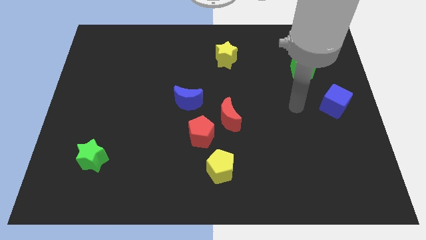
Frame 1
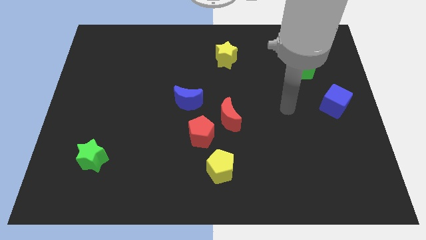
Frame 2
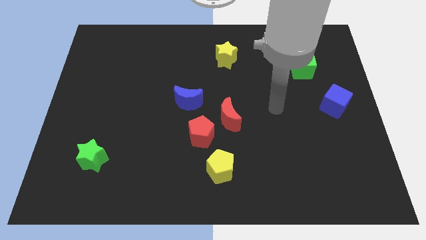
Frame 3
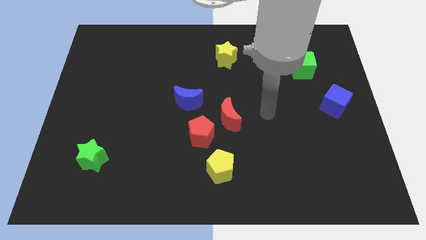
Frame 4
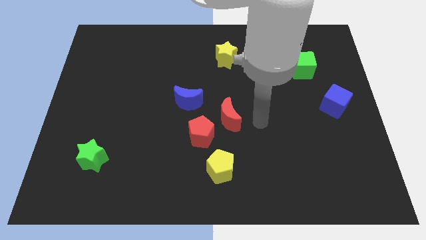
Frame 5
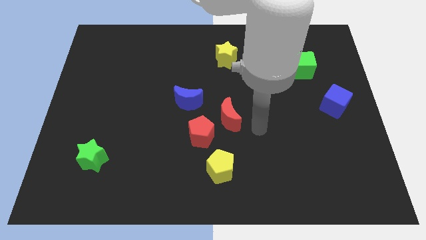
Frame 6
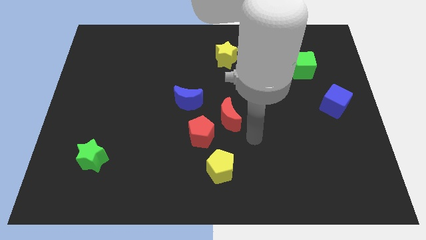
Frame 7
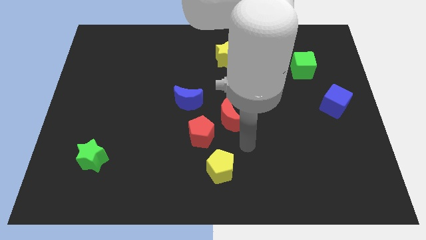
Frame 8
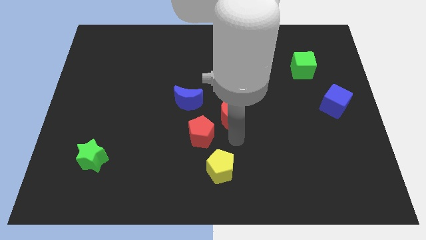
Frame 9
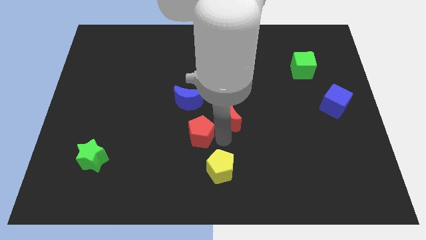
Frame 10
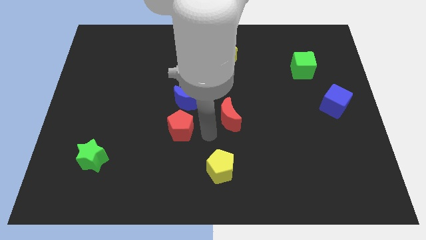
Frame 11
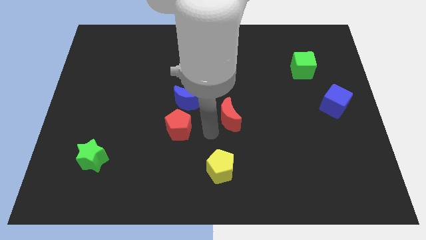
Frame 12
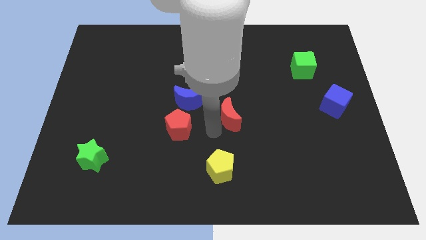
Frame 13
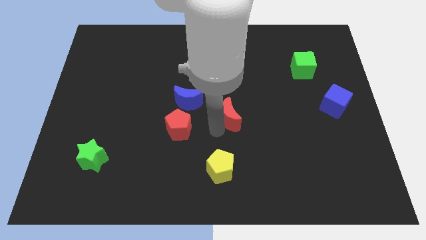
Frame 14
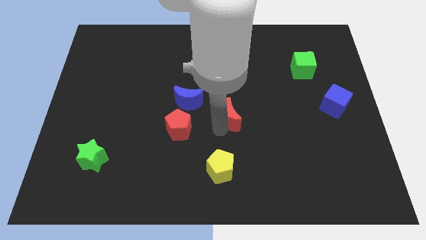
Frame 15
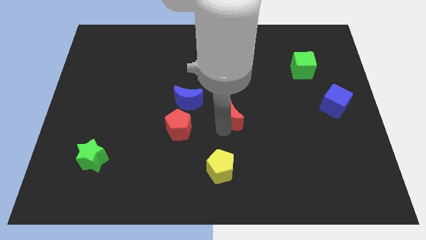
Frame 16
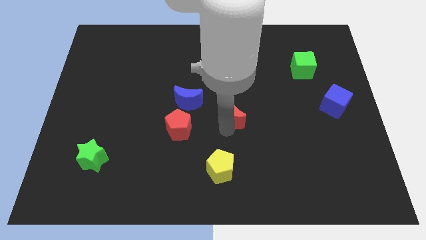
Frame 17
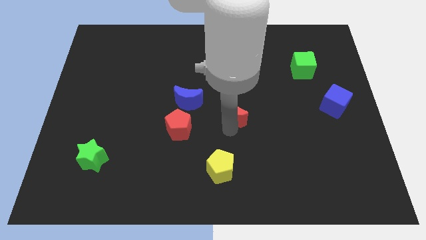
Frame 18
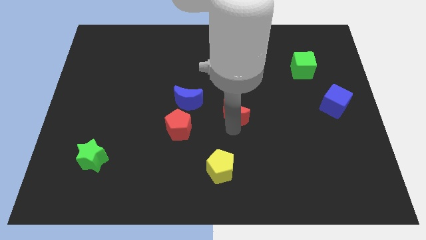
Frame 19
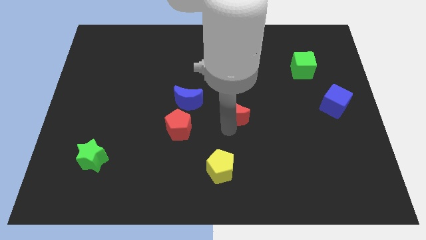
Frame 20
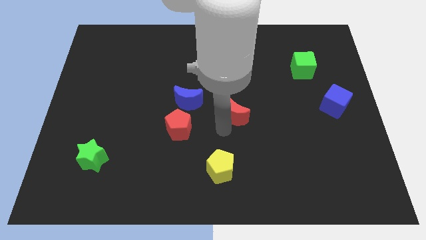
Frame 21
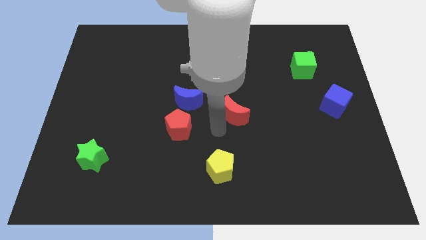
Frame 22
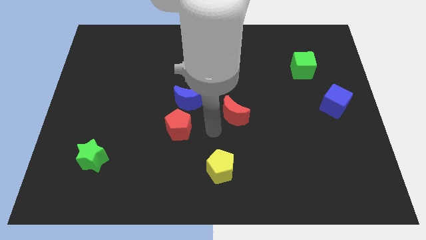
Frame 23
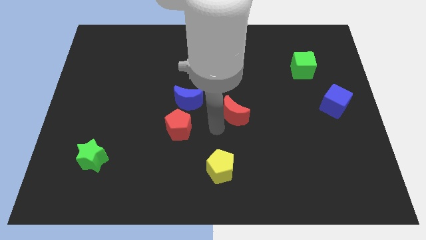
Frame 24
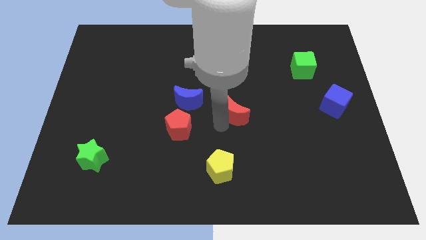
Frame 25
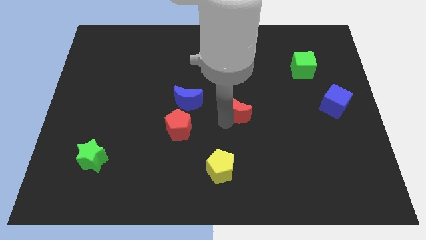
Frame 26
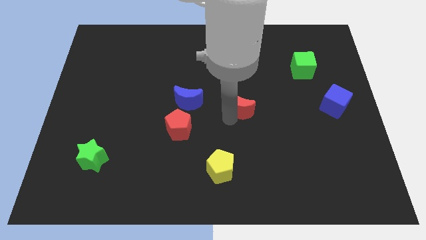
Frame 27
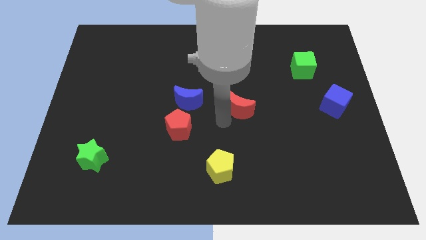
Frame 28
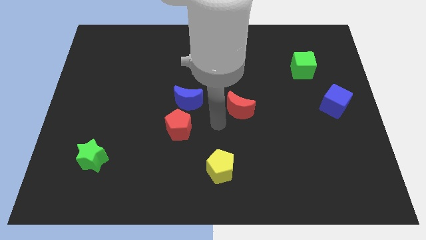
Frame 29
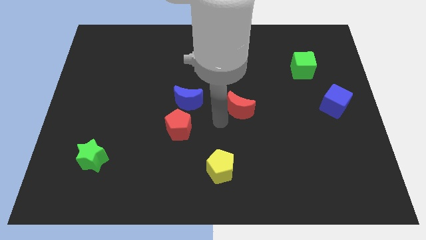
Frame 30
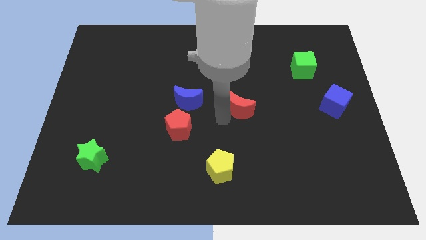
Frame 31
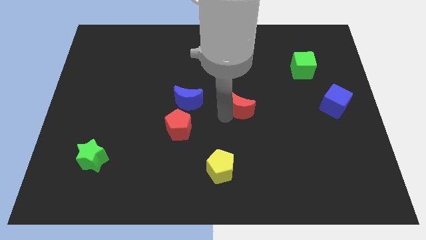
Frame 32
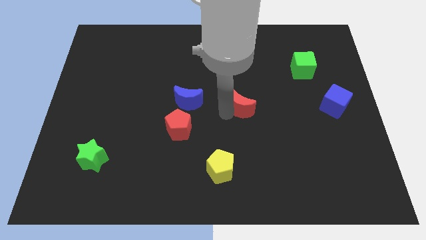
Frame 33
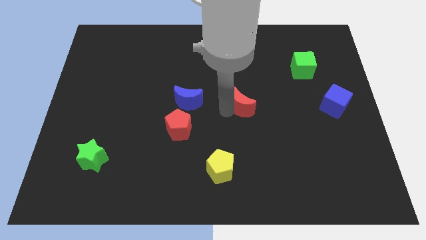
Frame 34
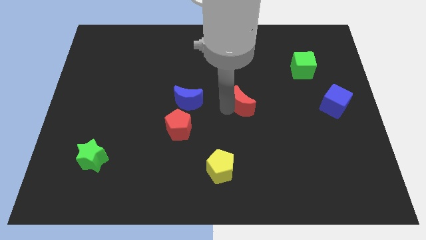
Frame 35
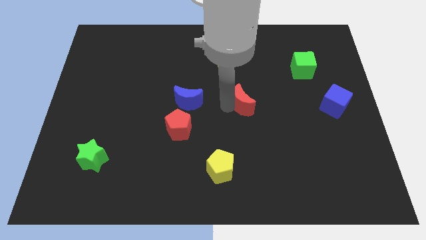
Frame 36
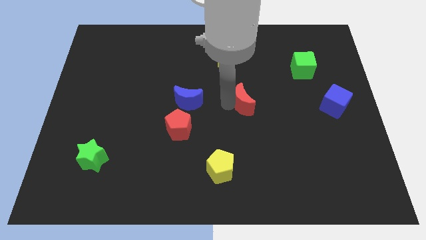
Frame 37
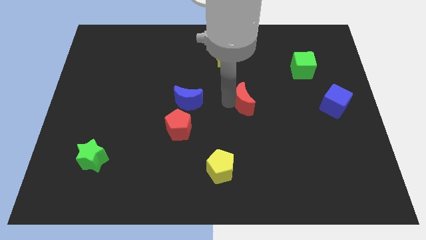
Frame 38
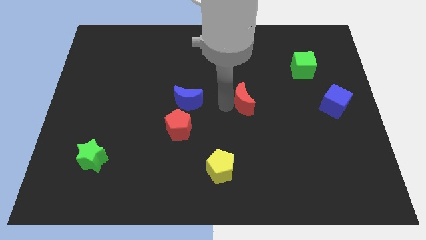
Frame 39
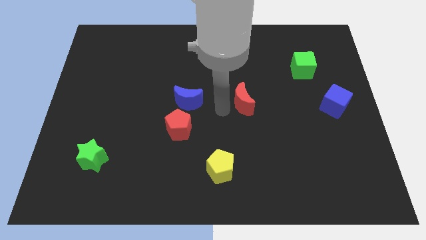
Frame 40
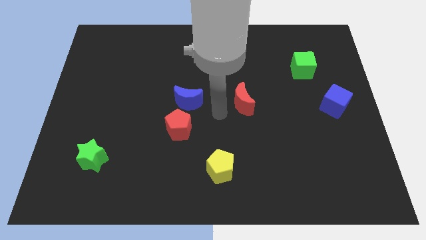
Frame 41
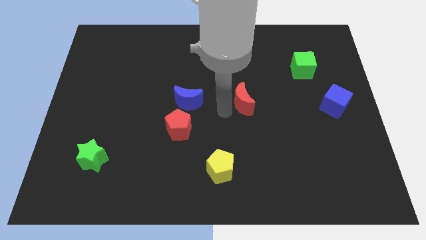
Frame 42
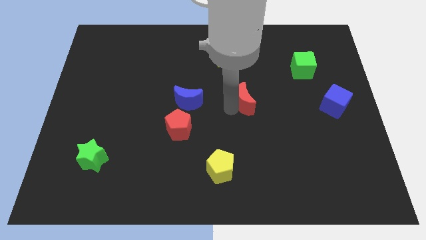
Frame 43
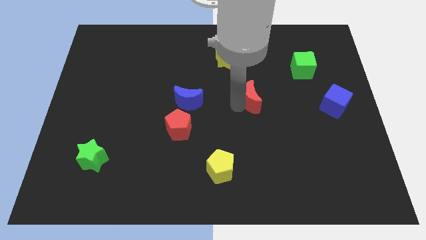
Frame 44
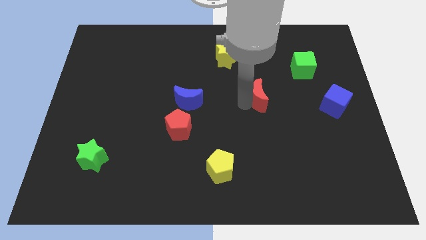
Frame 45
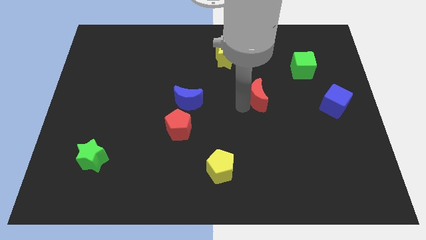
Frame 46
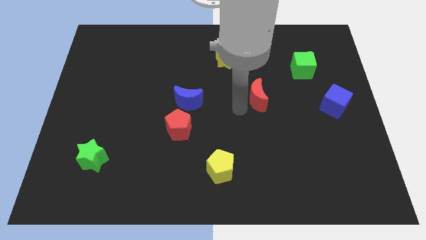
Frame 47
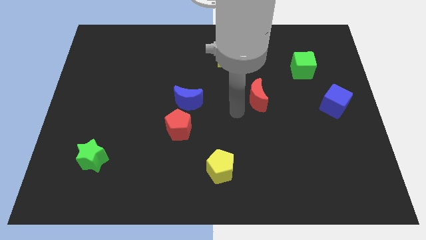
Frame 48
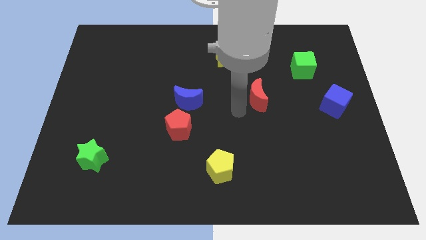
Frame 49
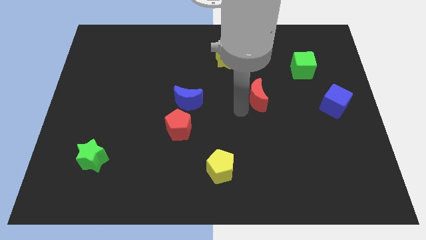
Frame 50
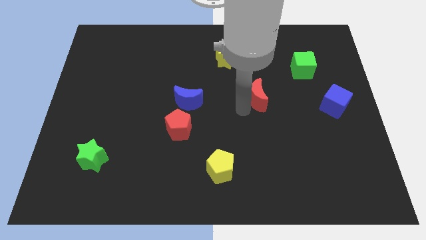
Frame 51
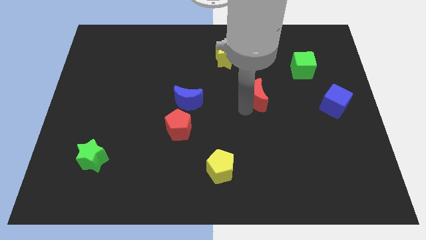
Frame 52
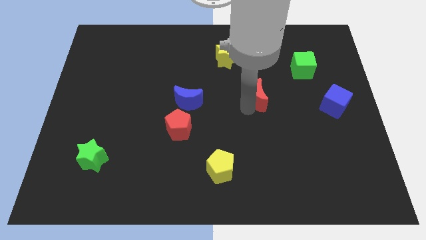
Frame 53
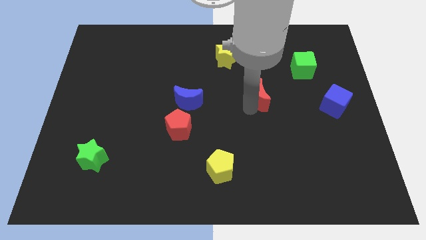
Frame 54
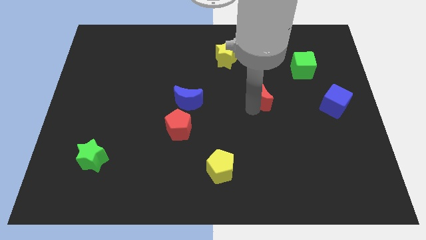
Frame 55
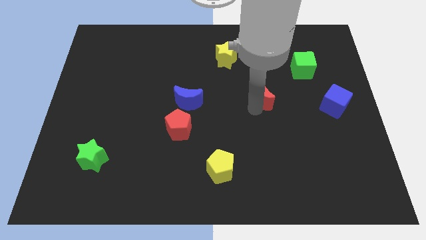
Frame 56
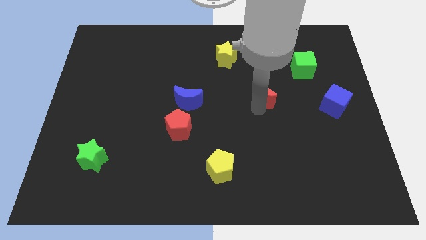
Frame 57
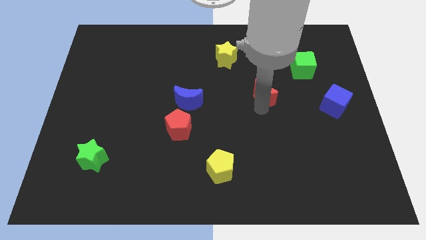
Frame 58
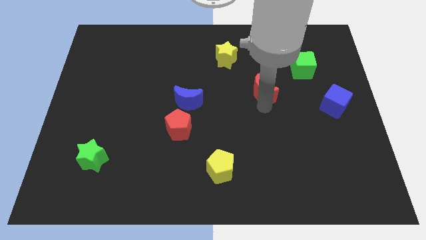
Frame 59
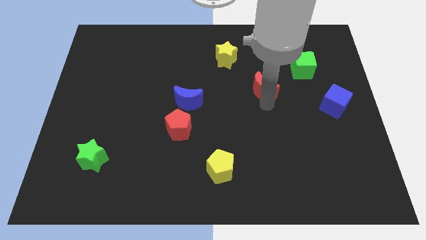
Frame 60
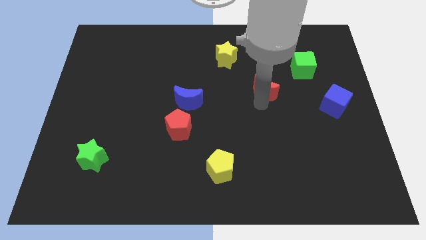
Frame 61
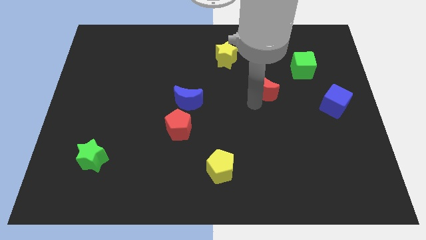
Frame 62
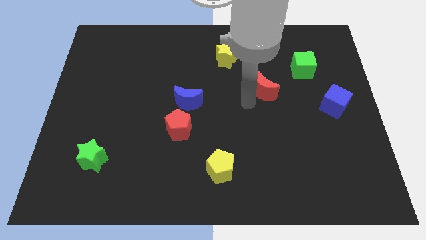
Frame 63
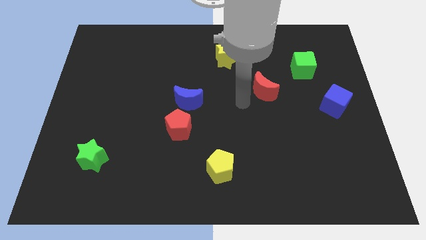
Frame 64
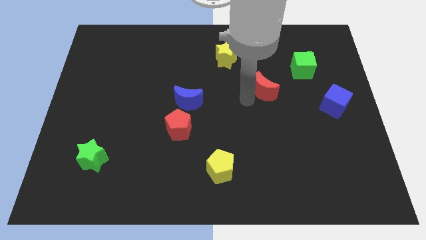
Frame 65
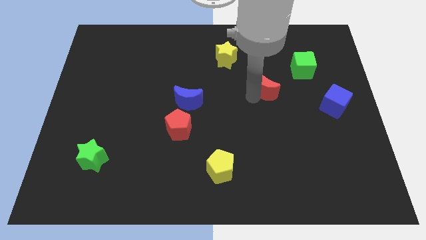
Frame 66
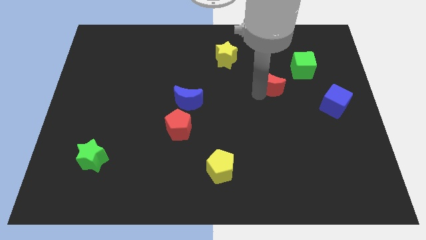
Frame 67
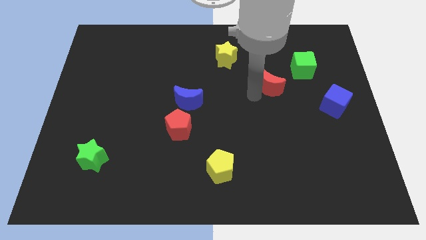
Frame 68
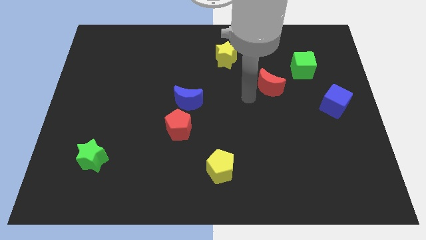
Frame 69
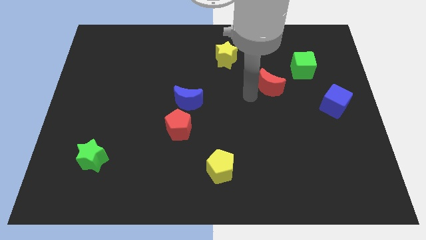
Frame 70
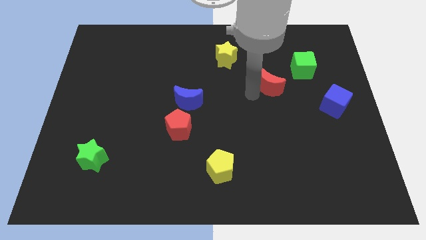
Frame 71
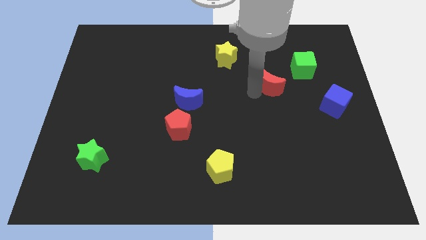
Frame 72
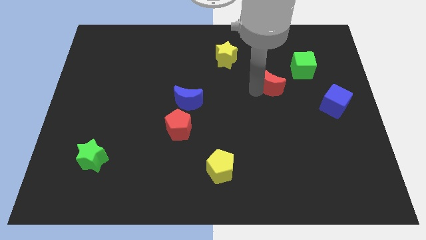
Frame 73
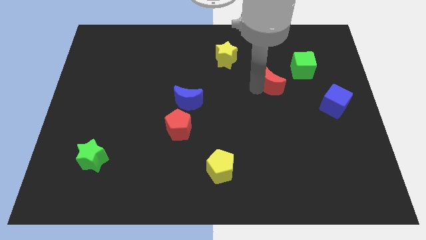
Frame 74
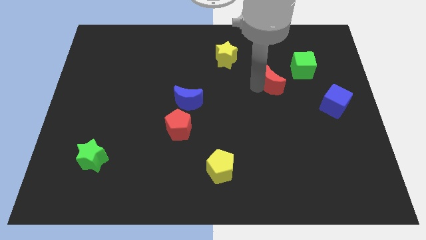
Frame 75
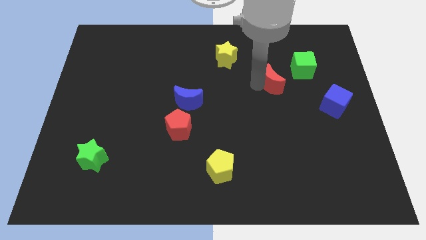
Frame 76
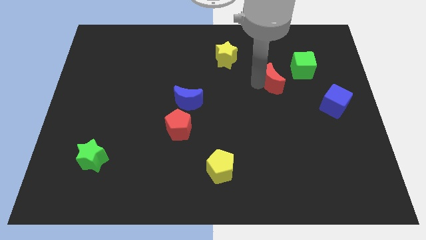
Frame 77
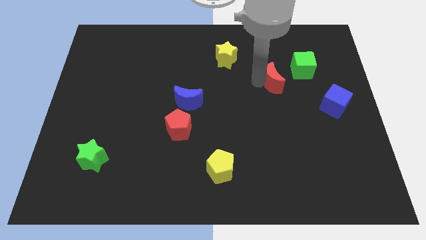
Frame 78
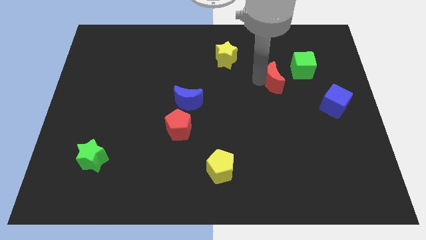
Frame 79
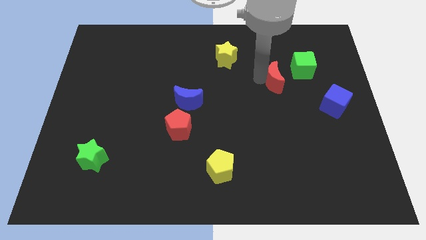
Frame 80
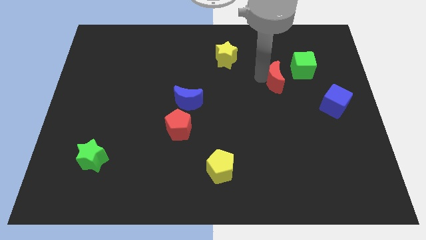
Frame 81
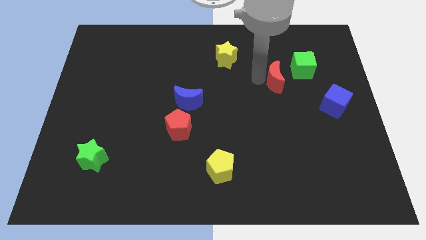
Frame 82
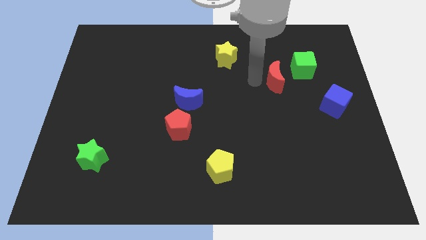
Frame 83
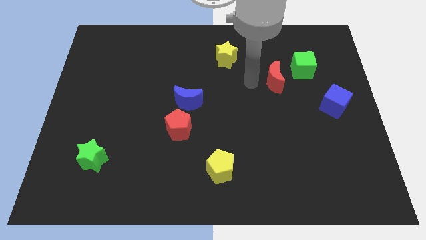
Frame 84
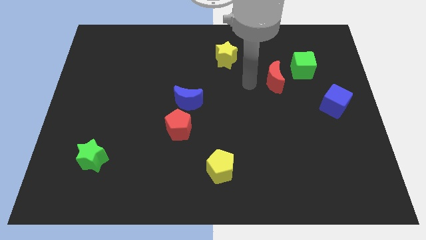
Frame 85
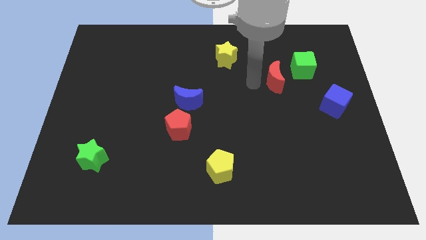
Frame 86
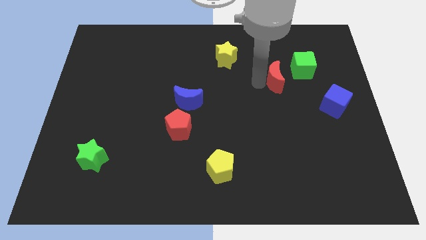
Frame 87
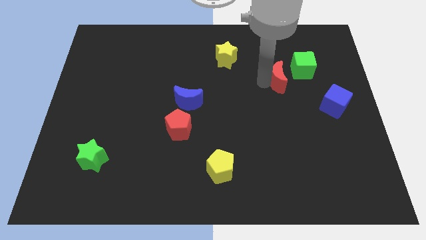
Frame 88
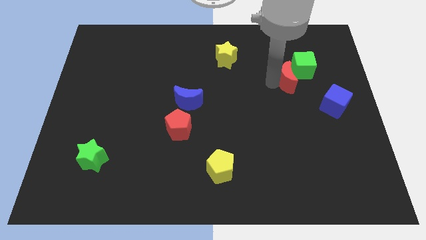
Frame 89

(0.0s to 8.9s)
move the red moon towards the green cube
